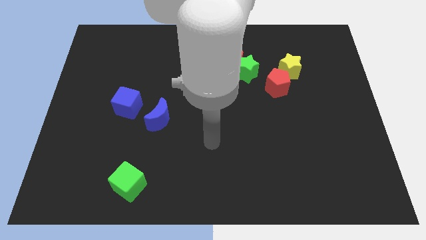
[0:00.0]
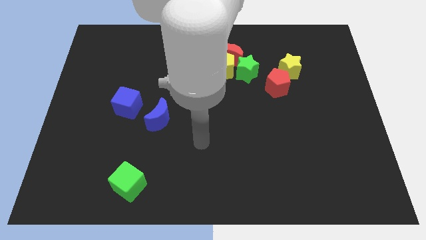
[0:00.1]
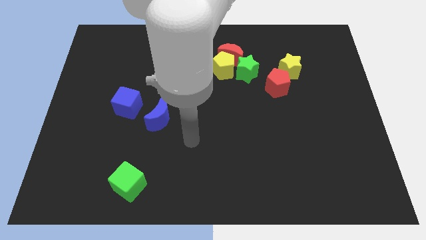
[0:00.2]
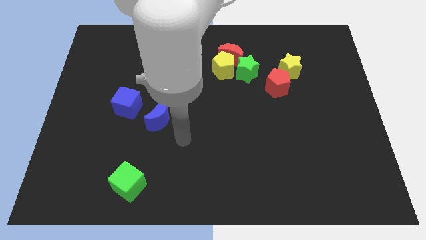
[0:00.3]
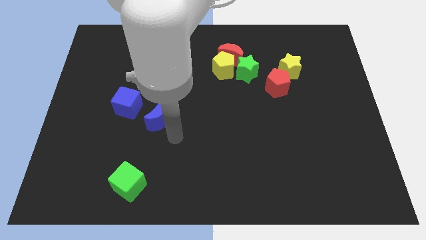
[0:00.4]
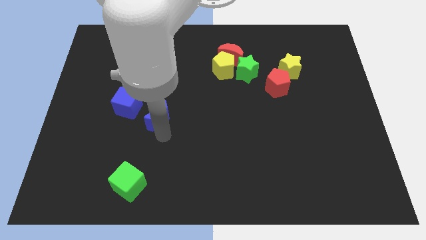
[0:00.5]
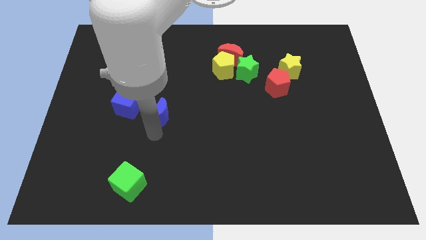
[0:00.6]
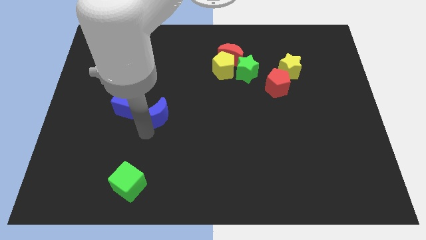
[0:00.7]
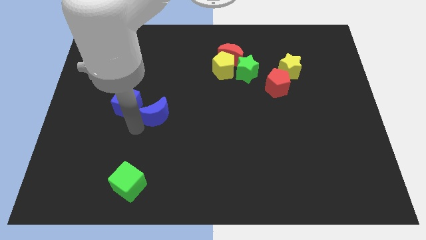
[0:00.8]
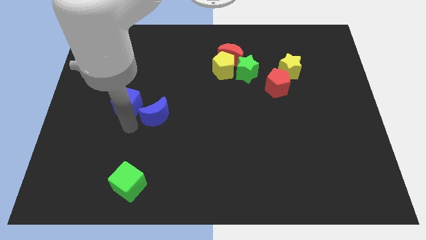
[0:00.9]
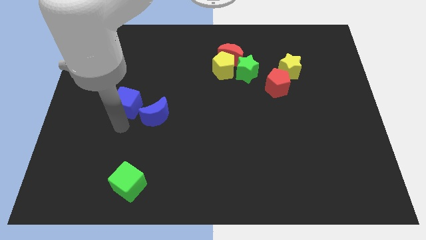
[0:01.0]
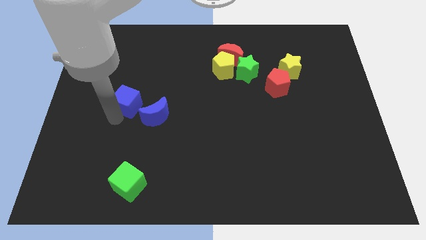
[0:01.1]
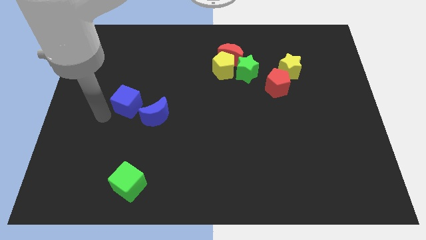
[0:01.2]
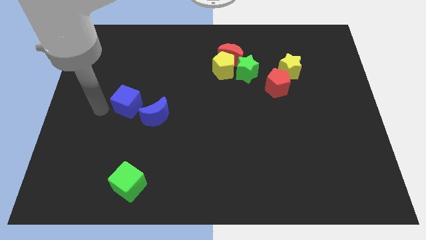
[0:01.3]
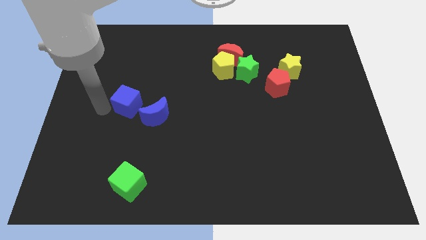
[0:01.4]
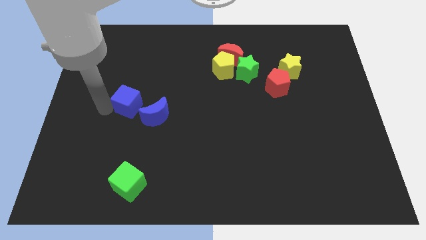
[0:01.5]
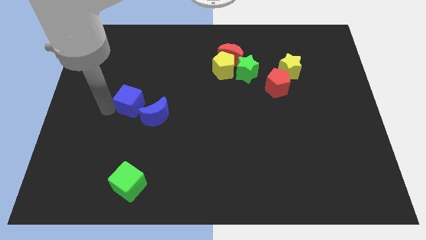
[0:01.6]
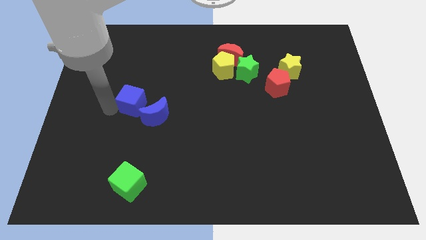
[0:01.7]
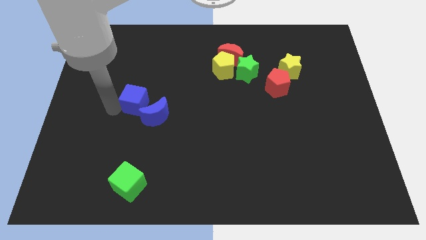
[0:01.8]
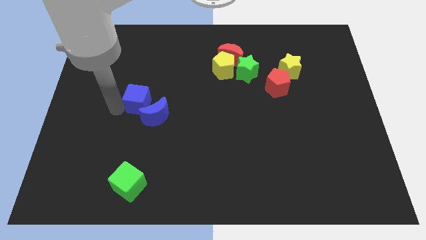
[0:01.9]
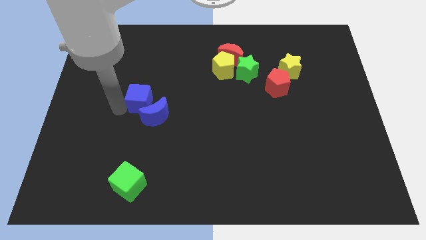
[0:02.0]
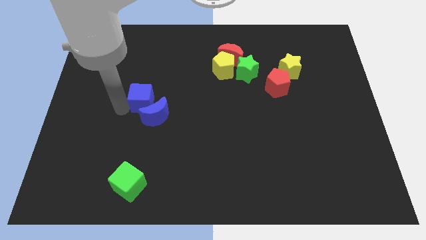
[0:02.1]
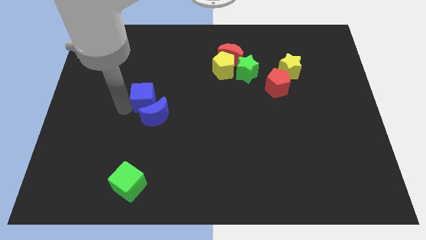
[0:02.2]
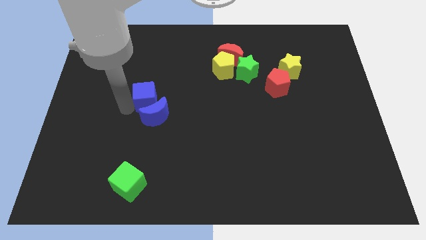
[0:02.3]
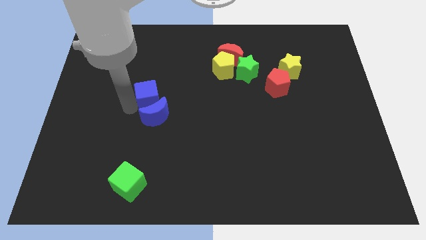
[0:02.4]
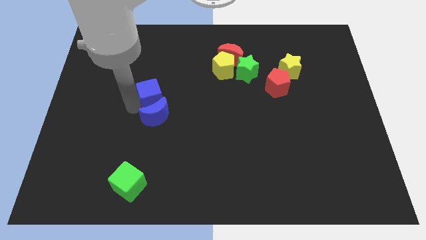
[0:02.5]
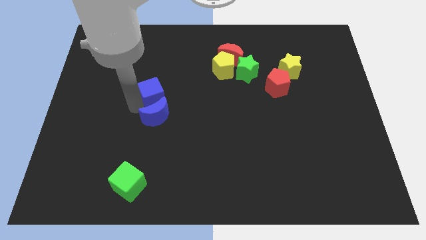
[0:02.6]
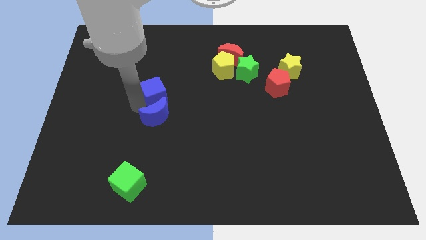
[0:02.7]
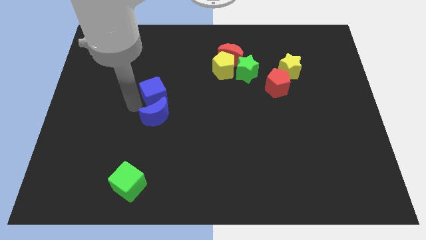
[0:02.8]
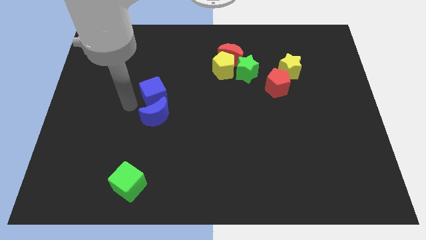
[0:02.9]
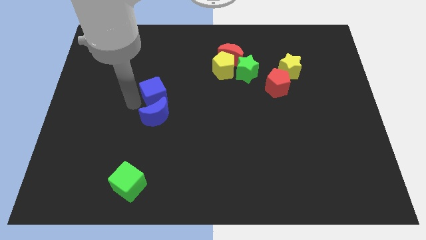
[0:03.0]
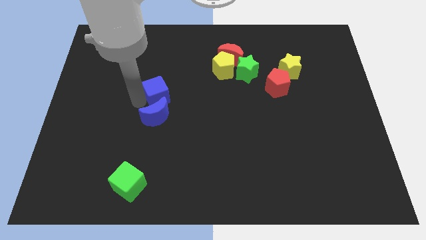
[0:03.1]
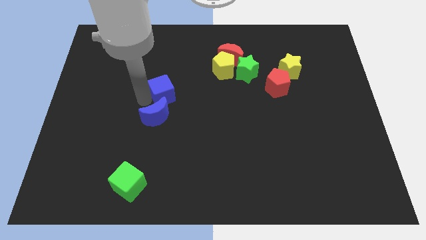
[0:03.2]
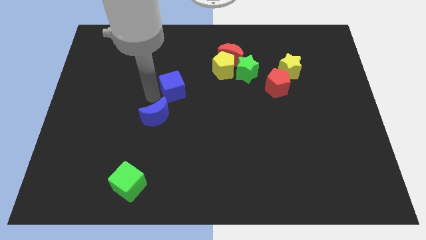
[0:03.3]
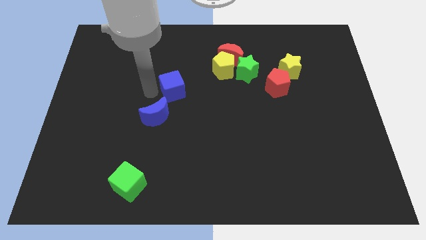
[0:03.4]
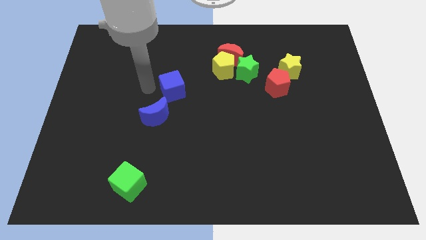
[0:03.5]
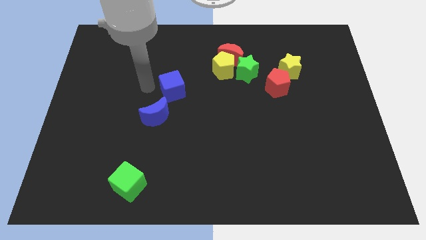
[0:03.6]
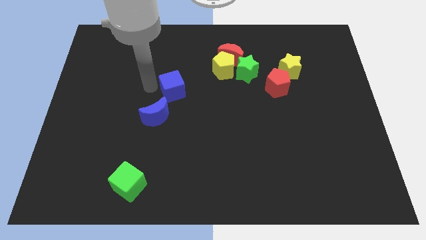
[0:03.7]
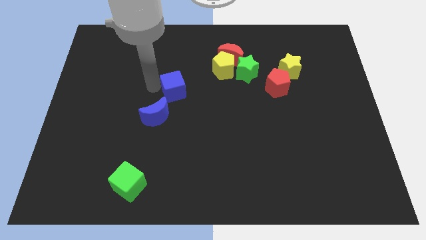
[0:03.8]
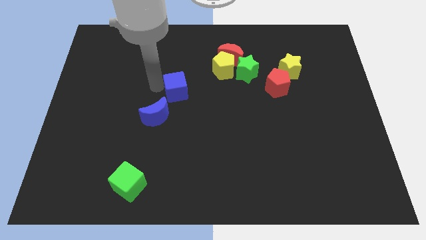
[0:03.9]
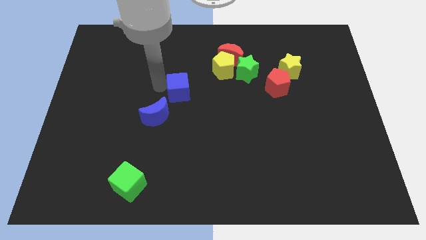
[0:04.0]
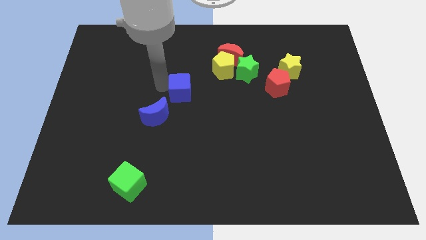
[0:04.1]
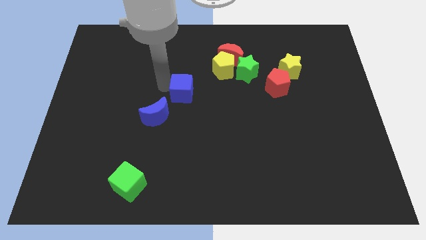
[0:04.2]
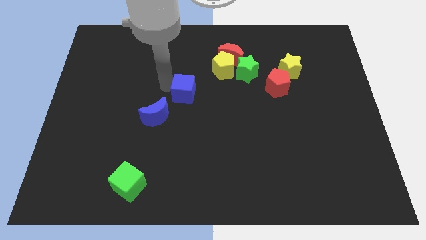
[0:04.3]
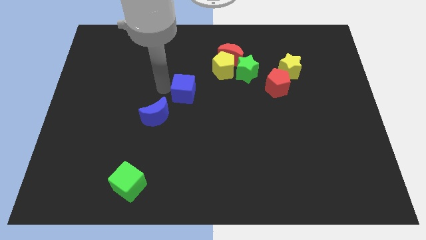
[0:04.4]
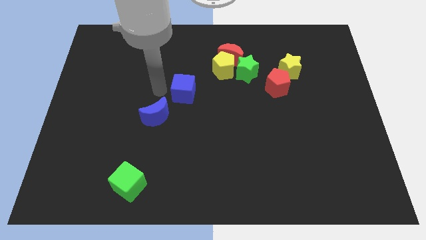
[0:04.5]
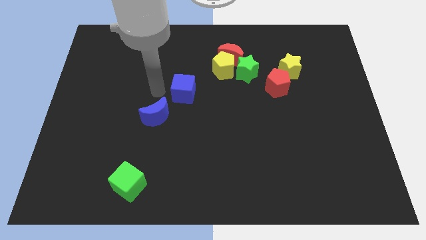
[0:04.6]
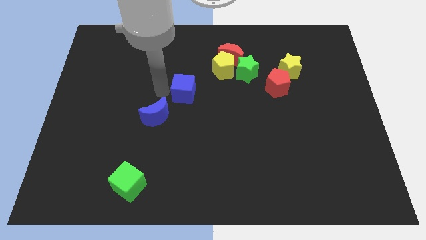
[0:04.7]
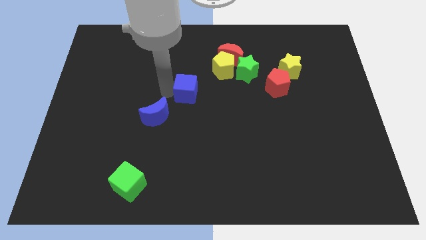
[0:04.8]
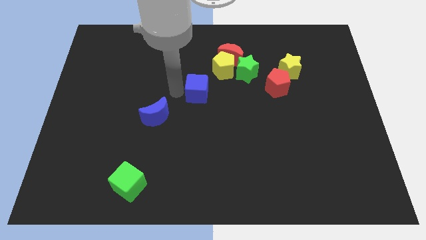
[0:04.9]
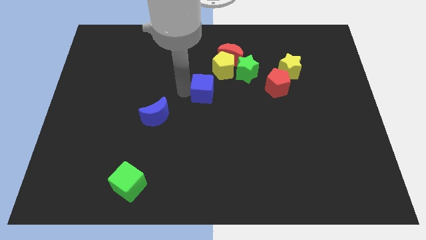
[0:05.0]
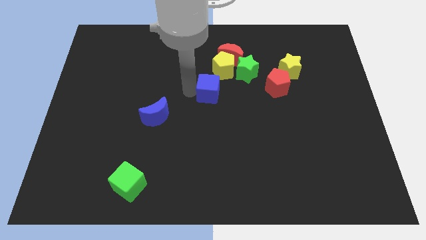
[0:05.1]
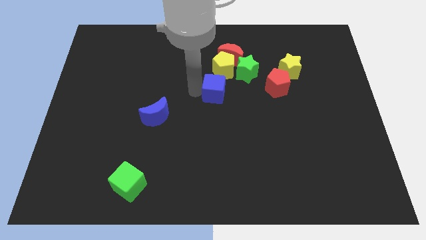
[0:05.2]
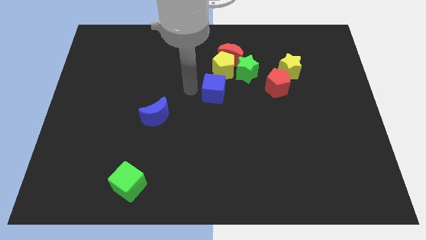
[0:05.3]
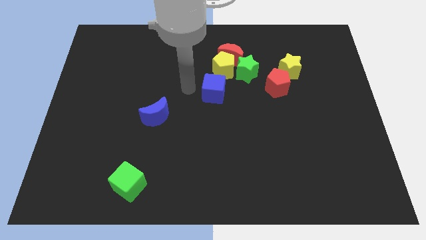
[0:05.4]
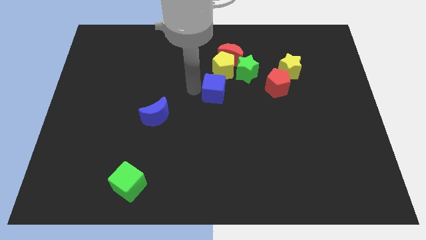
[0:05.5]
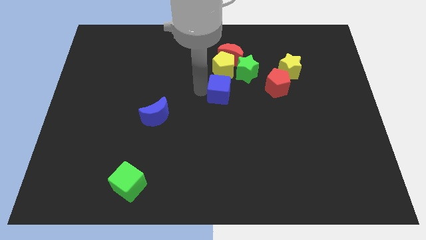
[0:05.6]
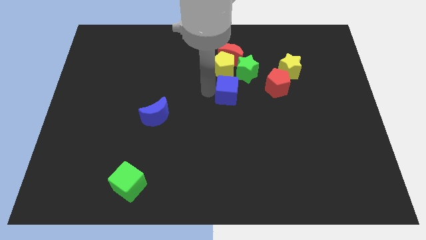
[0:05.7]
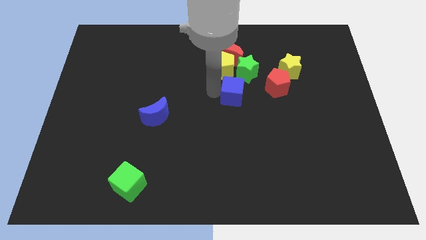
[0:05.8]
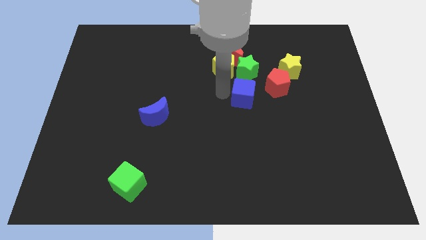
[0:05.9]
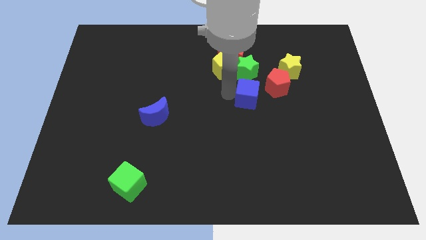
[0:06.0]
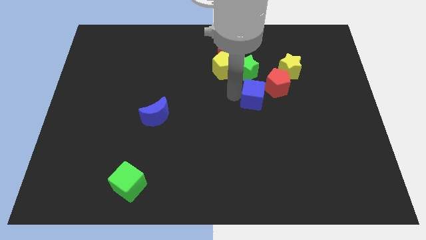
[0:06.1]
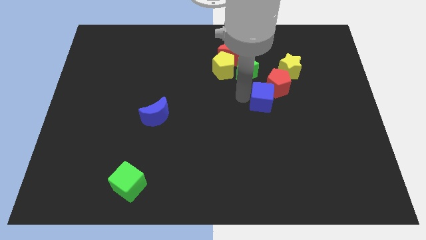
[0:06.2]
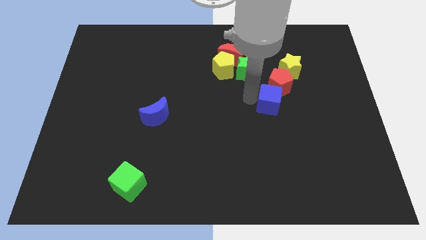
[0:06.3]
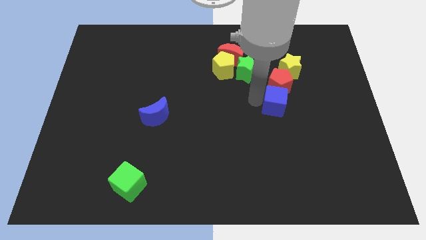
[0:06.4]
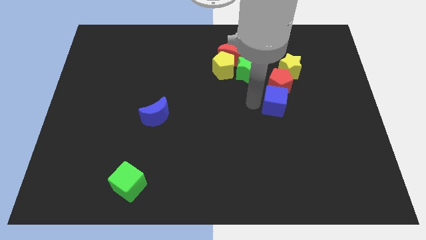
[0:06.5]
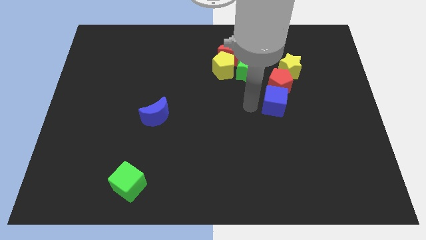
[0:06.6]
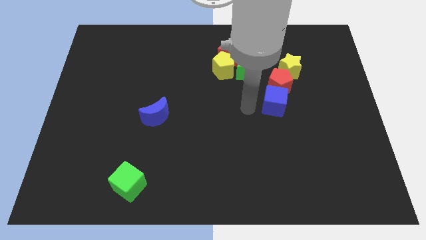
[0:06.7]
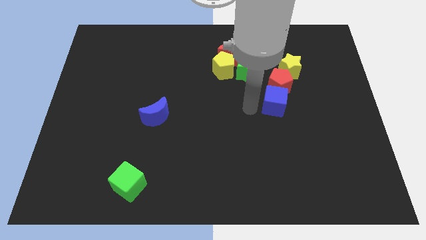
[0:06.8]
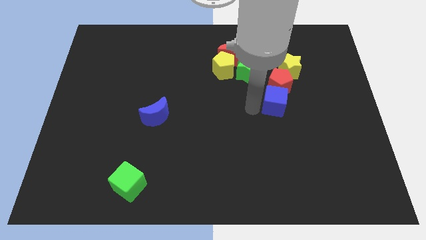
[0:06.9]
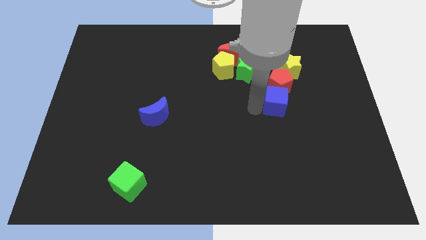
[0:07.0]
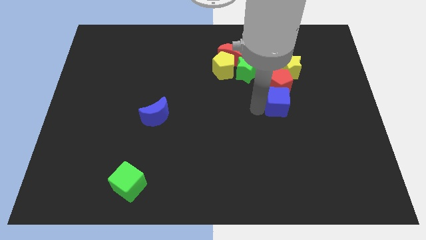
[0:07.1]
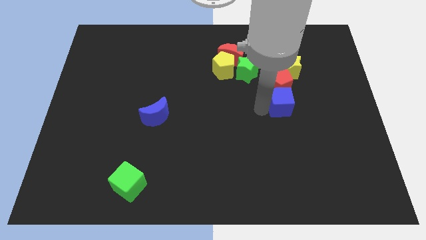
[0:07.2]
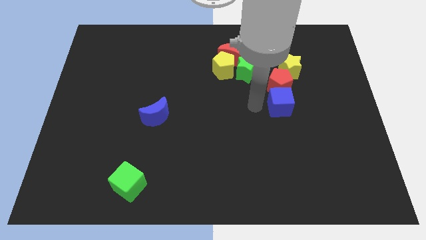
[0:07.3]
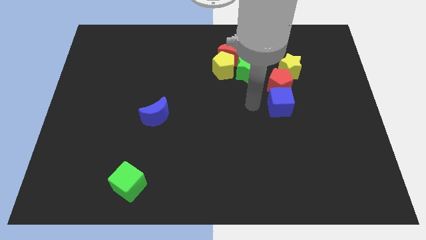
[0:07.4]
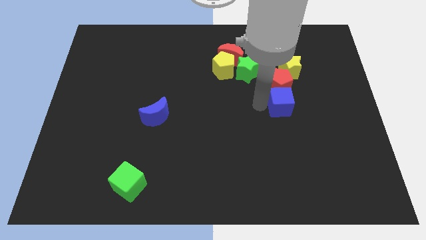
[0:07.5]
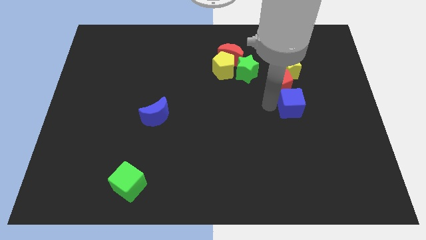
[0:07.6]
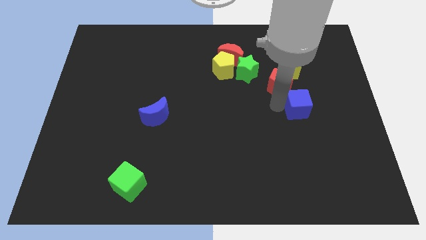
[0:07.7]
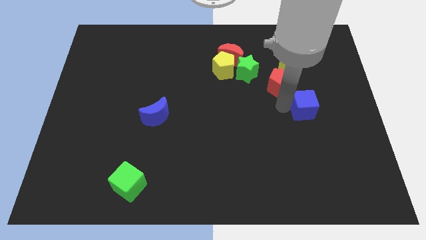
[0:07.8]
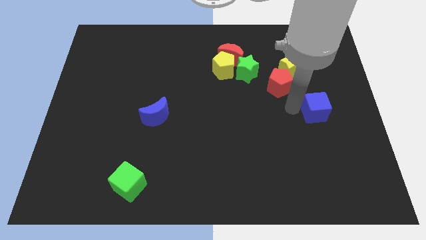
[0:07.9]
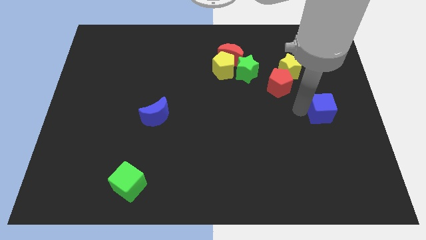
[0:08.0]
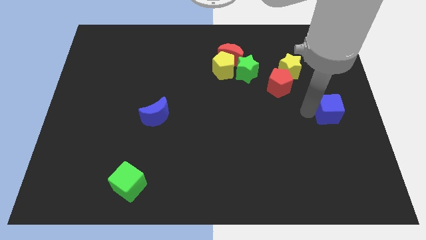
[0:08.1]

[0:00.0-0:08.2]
slide the blue cube to the right side
